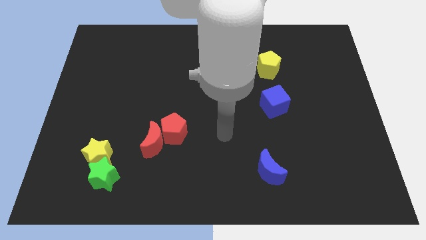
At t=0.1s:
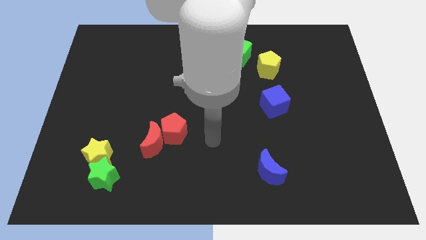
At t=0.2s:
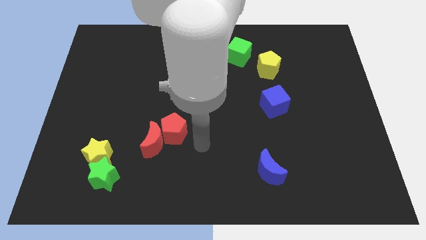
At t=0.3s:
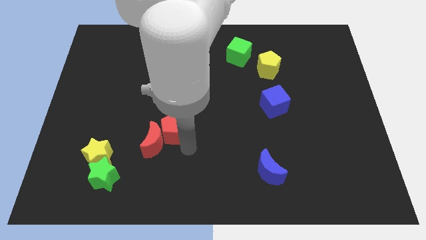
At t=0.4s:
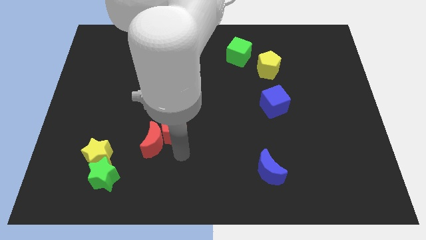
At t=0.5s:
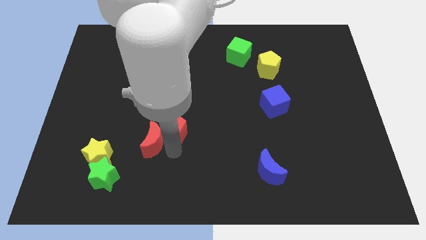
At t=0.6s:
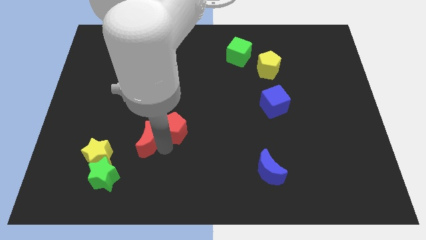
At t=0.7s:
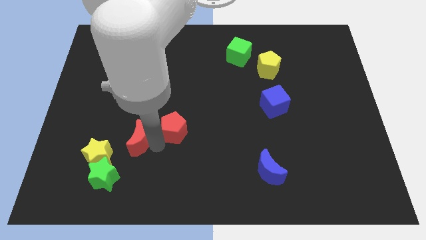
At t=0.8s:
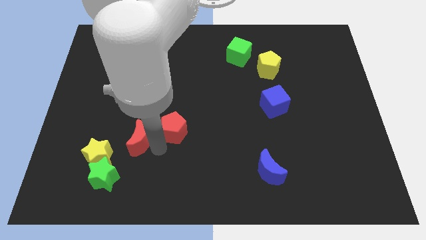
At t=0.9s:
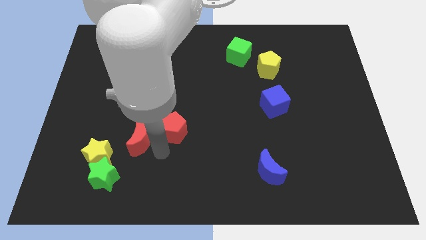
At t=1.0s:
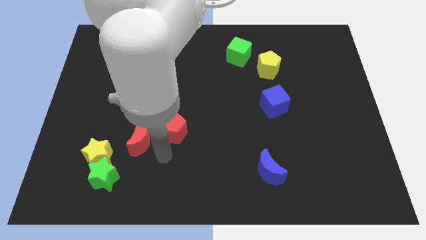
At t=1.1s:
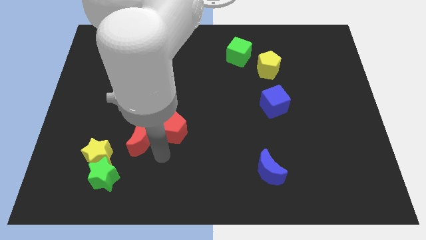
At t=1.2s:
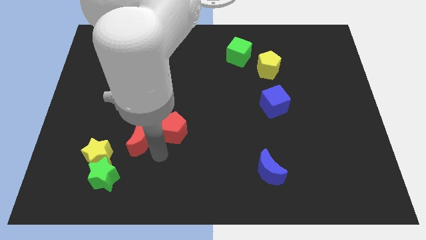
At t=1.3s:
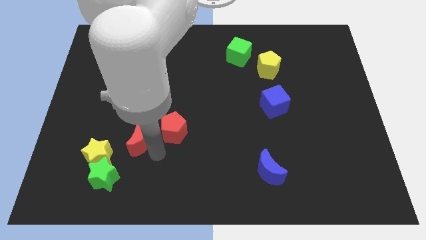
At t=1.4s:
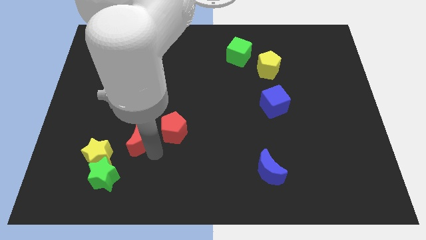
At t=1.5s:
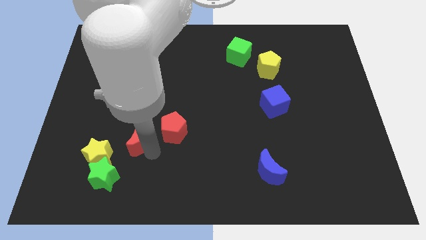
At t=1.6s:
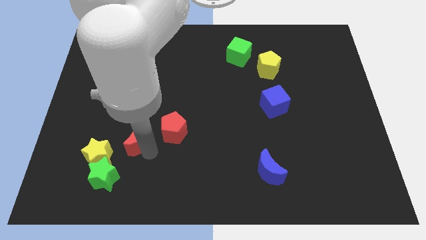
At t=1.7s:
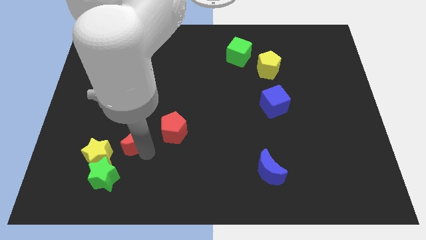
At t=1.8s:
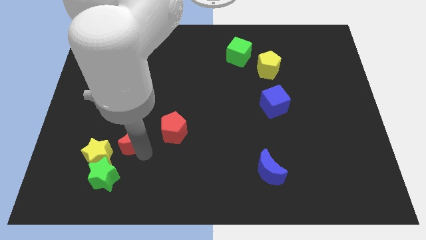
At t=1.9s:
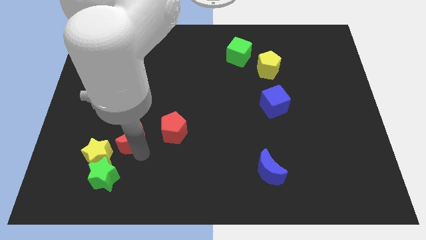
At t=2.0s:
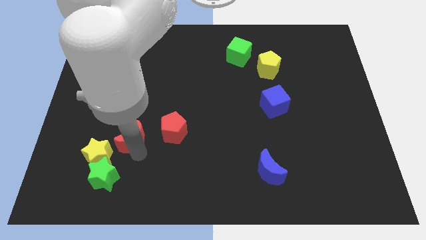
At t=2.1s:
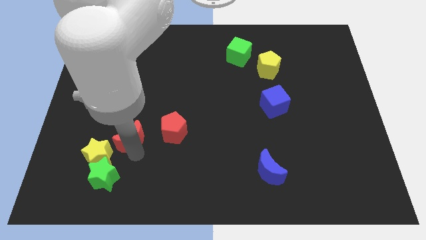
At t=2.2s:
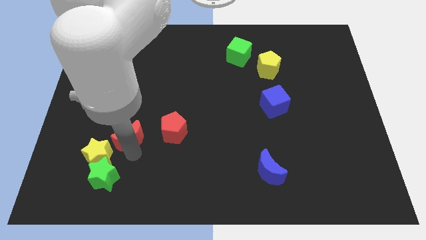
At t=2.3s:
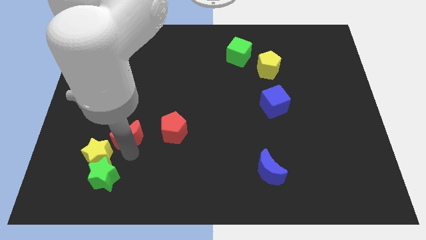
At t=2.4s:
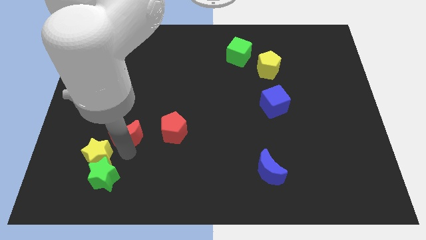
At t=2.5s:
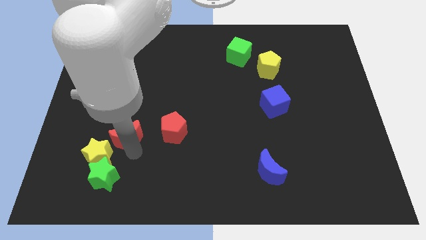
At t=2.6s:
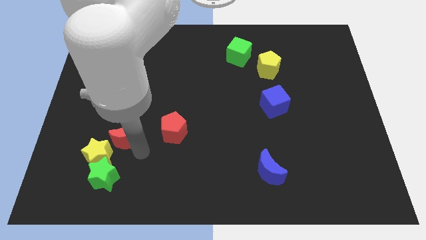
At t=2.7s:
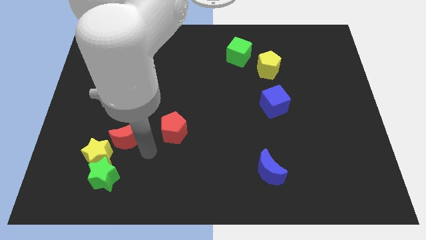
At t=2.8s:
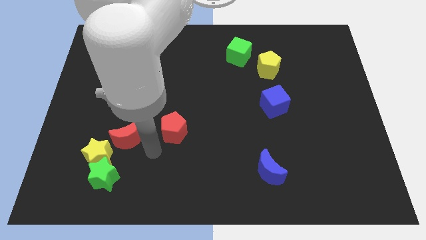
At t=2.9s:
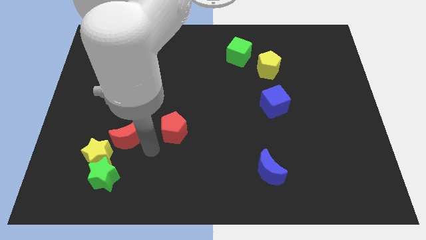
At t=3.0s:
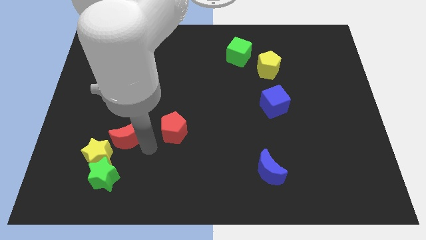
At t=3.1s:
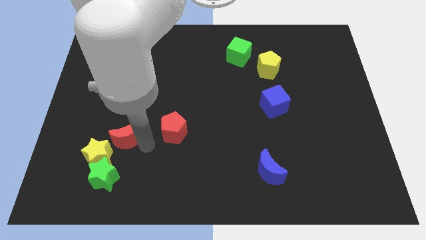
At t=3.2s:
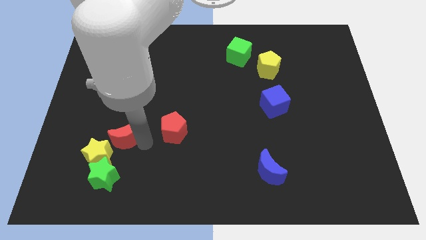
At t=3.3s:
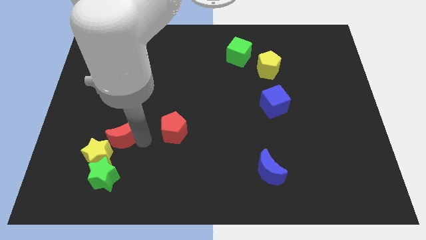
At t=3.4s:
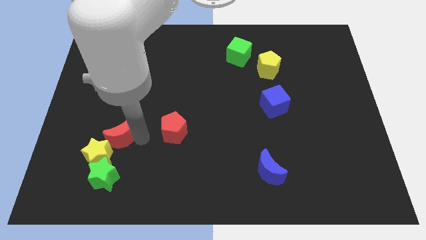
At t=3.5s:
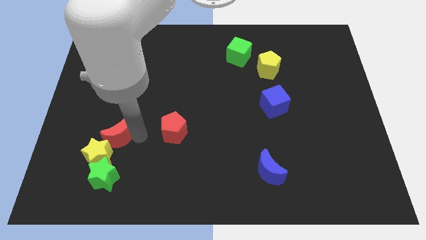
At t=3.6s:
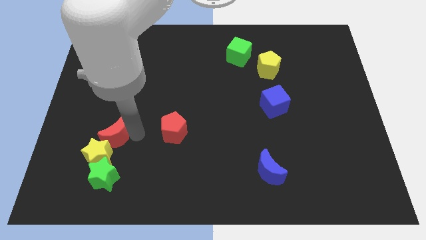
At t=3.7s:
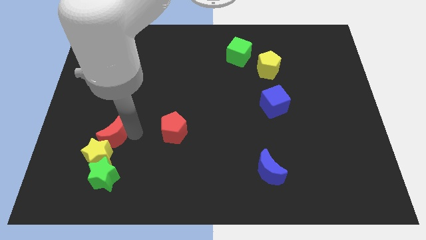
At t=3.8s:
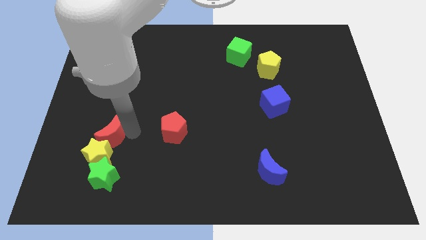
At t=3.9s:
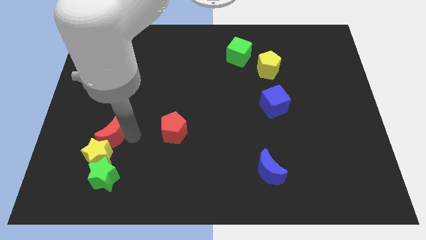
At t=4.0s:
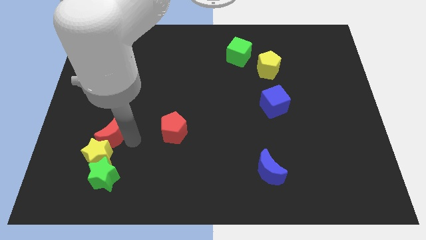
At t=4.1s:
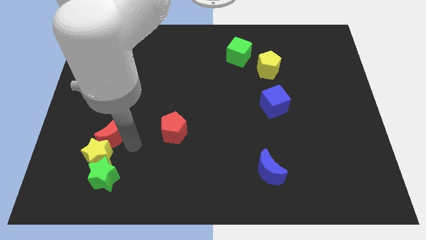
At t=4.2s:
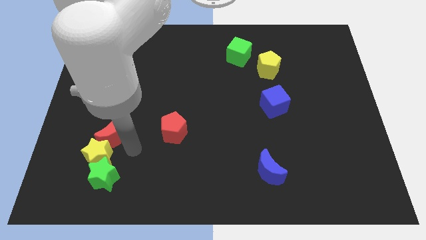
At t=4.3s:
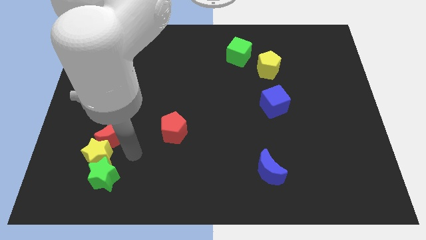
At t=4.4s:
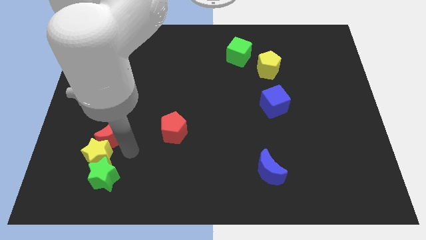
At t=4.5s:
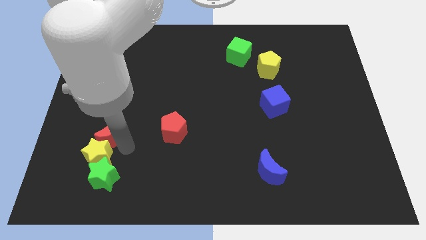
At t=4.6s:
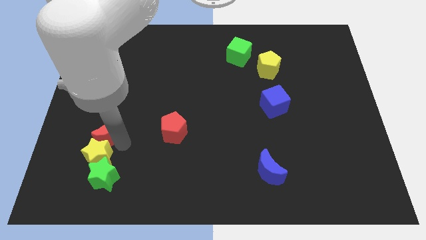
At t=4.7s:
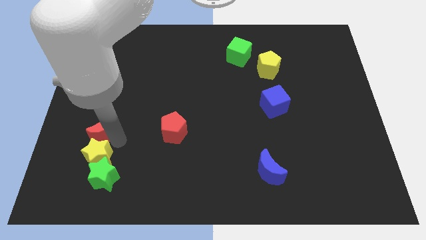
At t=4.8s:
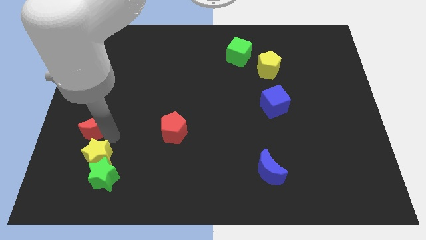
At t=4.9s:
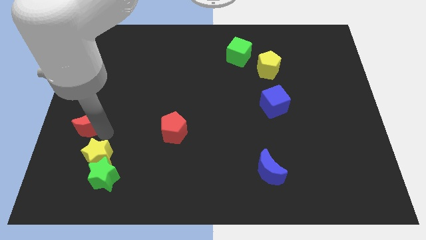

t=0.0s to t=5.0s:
slide the red moon to the left side of the board

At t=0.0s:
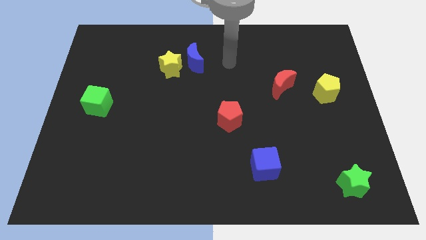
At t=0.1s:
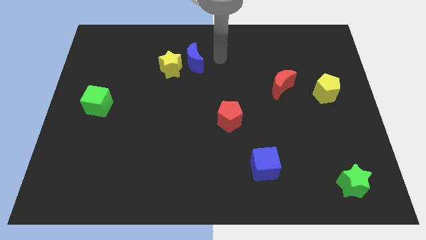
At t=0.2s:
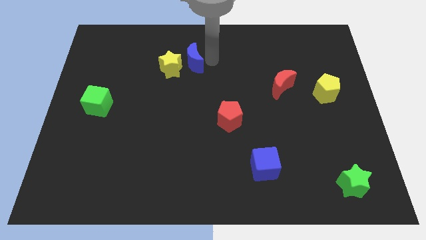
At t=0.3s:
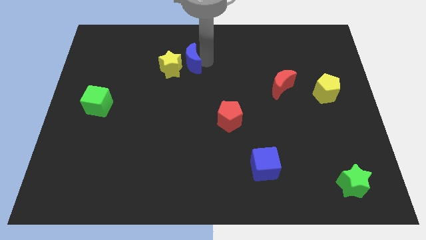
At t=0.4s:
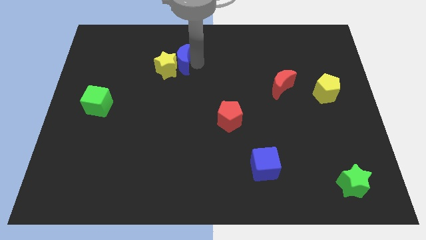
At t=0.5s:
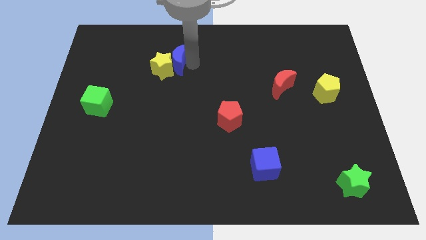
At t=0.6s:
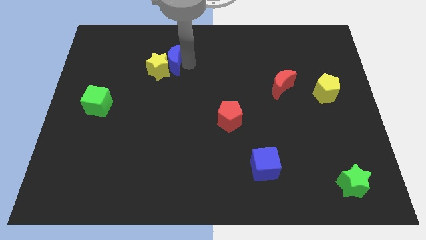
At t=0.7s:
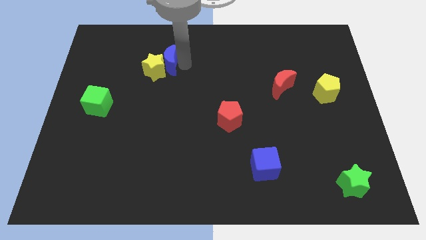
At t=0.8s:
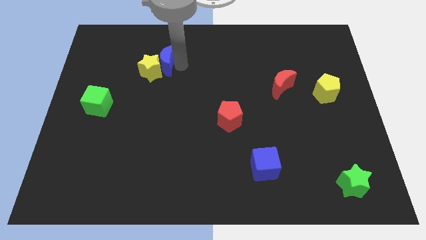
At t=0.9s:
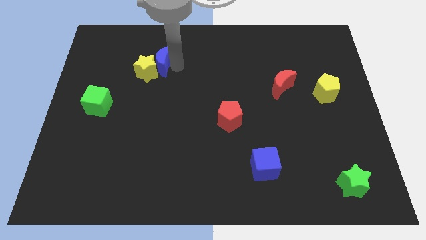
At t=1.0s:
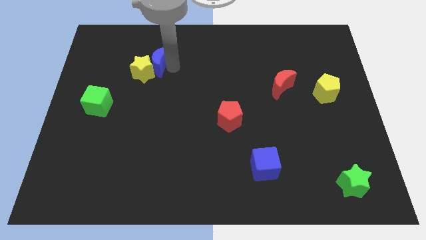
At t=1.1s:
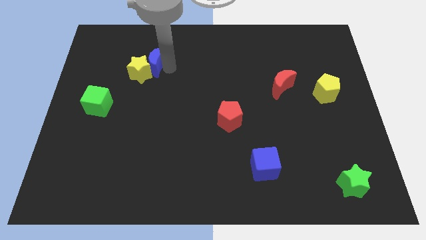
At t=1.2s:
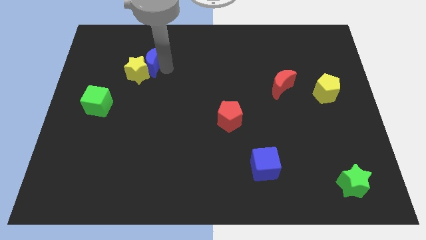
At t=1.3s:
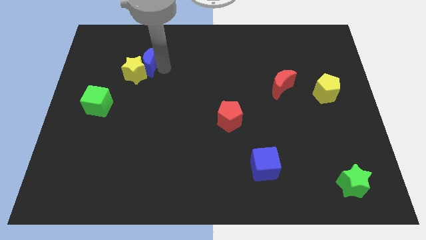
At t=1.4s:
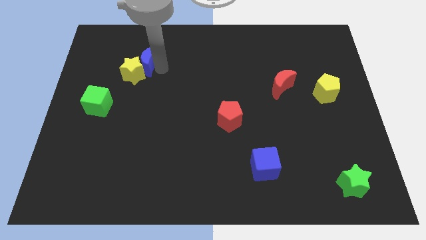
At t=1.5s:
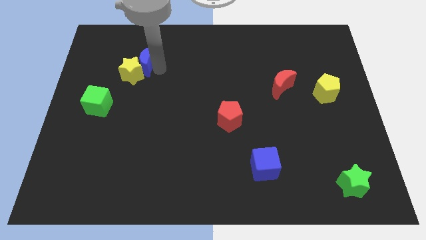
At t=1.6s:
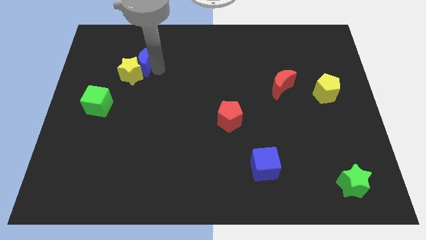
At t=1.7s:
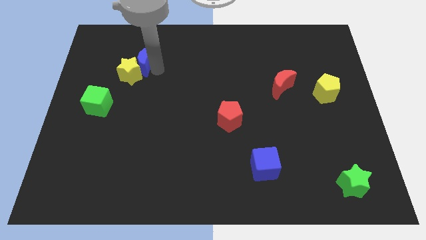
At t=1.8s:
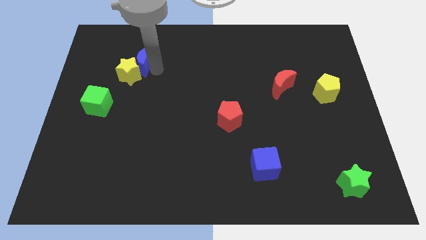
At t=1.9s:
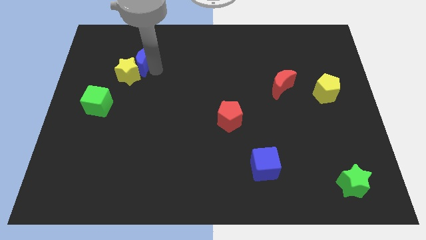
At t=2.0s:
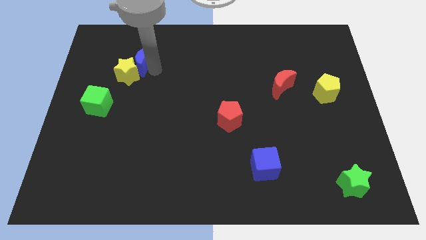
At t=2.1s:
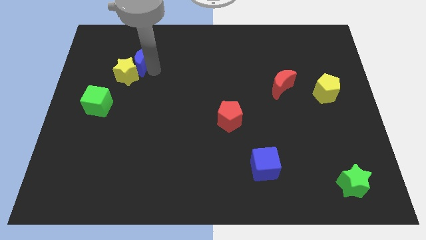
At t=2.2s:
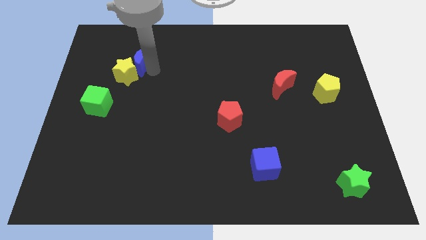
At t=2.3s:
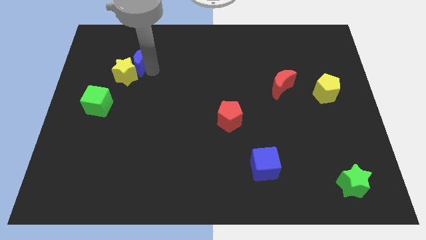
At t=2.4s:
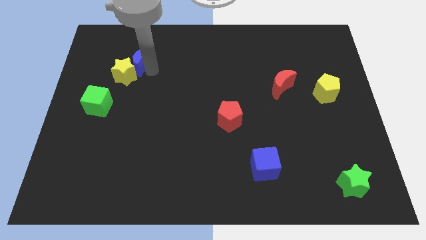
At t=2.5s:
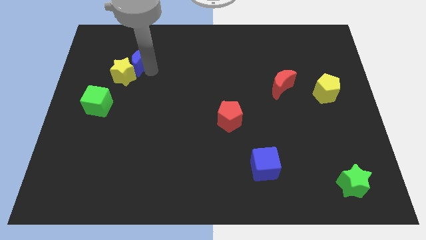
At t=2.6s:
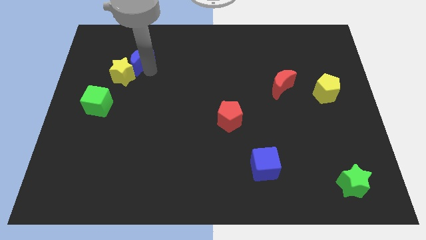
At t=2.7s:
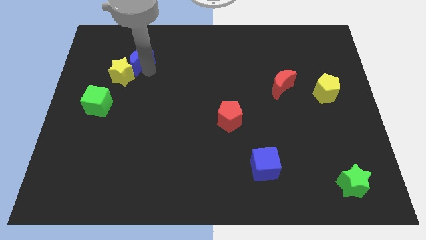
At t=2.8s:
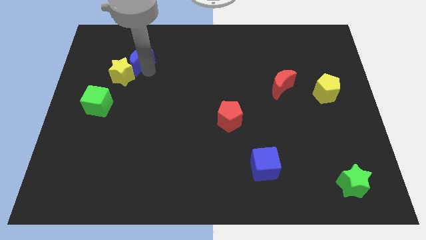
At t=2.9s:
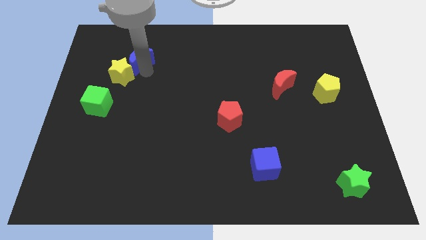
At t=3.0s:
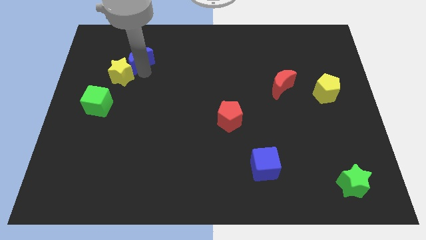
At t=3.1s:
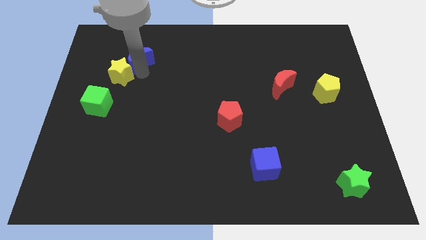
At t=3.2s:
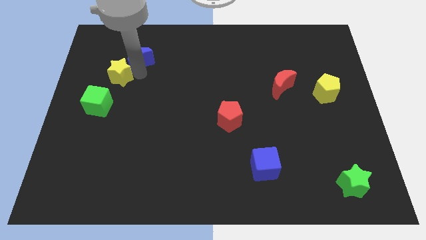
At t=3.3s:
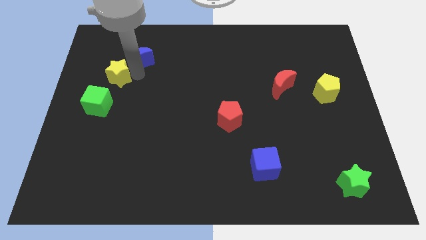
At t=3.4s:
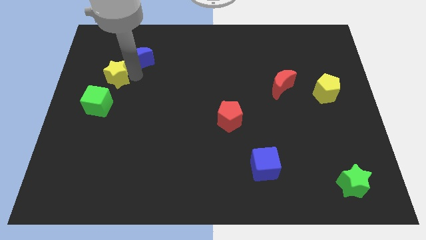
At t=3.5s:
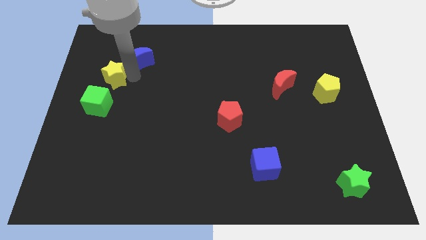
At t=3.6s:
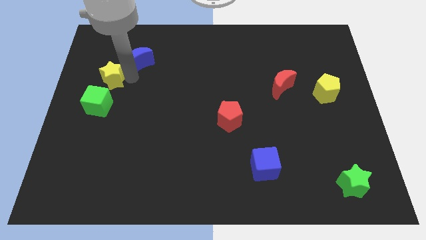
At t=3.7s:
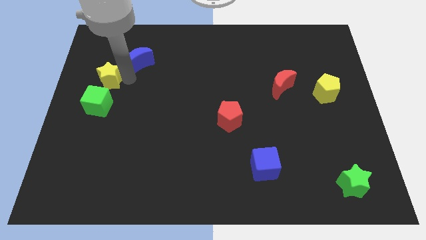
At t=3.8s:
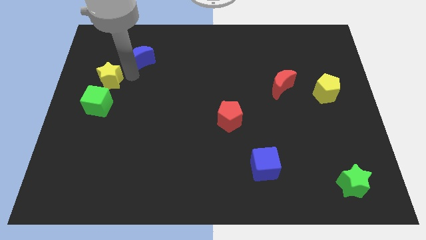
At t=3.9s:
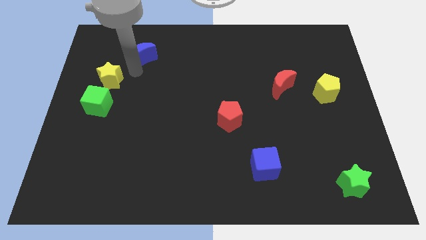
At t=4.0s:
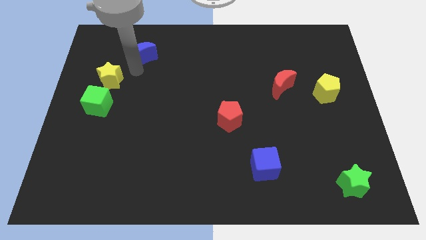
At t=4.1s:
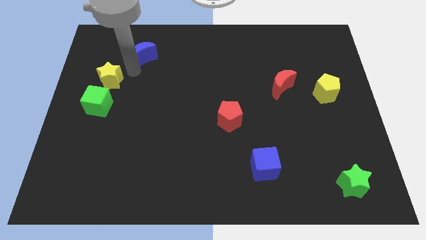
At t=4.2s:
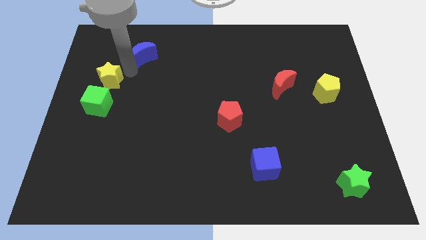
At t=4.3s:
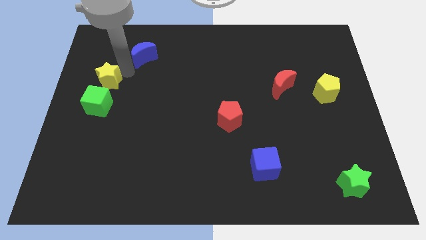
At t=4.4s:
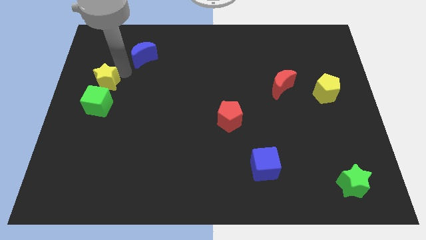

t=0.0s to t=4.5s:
slide the yellow star to the center left
